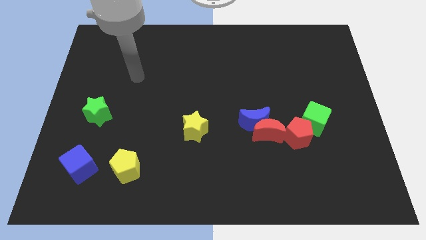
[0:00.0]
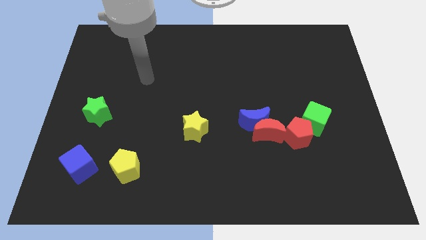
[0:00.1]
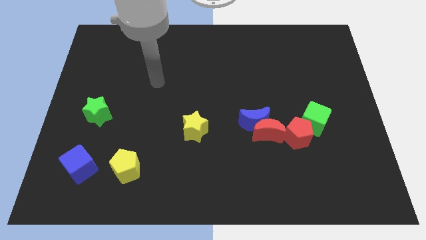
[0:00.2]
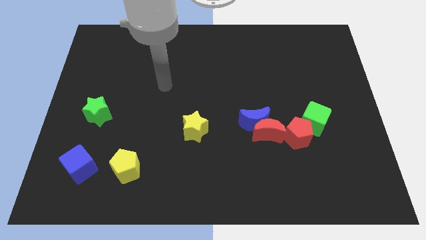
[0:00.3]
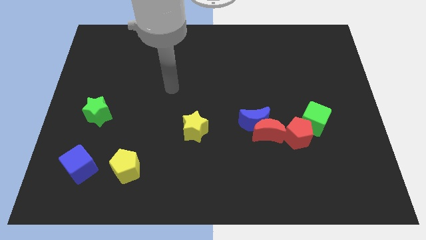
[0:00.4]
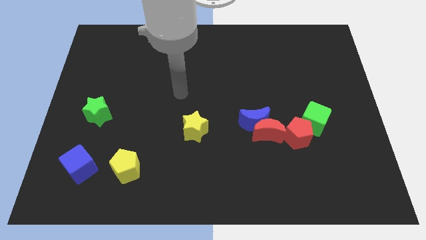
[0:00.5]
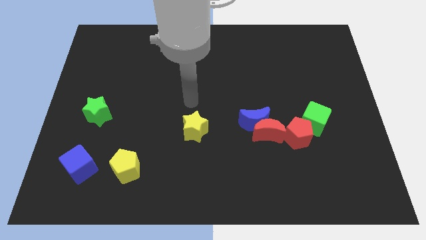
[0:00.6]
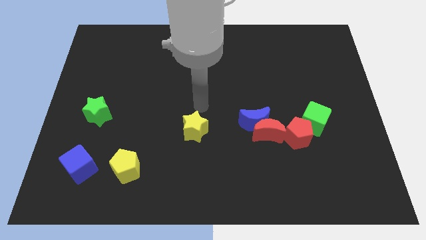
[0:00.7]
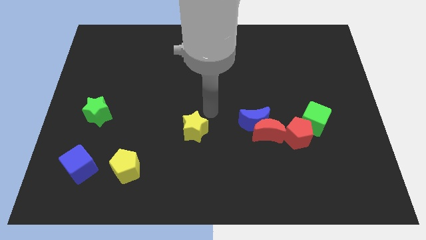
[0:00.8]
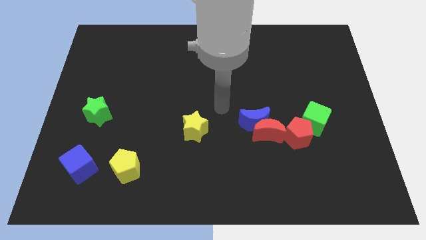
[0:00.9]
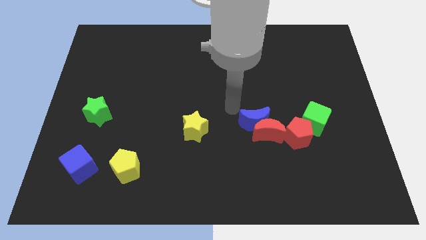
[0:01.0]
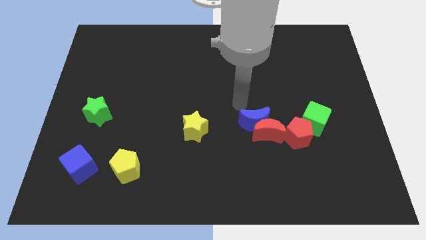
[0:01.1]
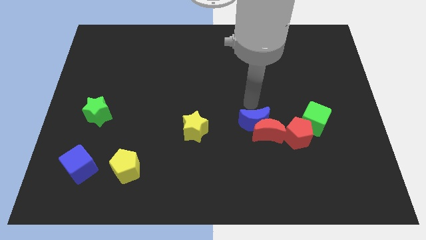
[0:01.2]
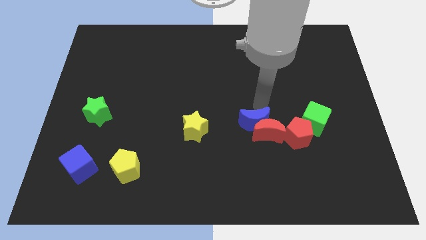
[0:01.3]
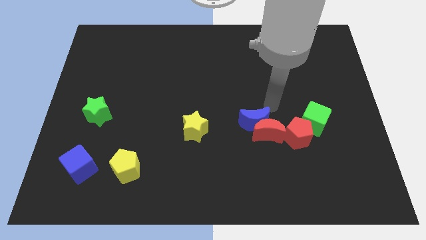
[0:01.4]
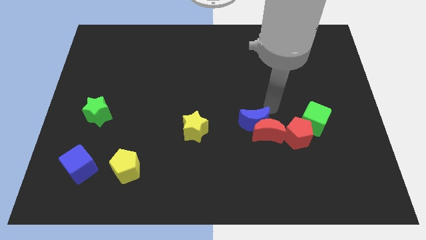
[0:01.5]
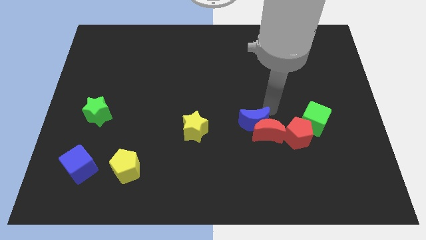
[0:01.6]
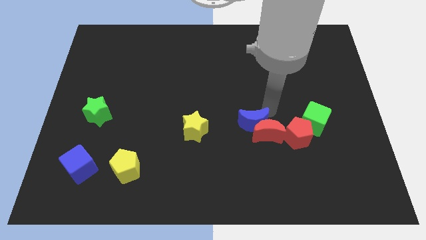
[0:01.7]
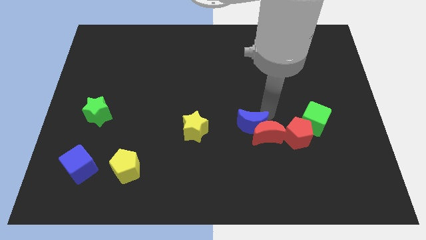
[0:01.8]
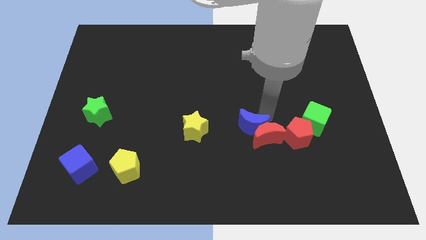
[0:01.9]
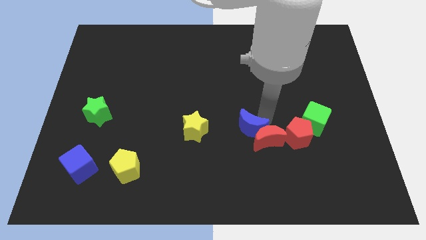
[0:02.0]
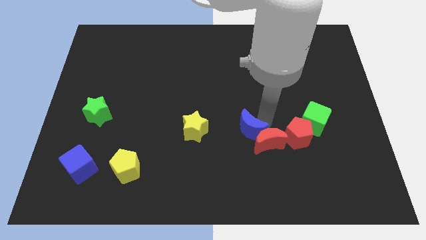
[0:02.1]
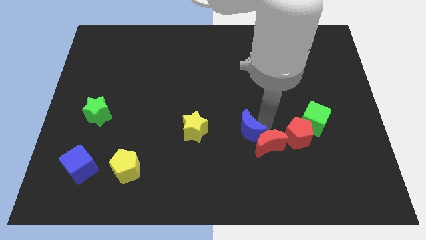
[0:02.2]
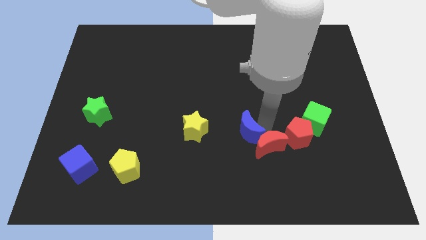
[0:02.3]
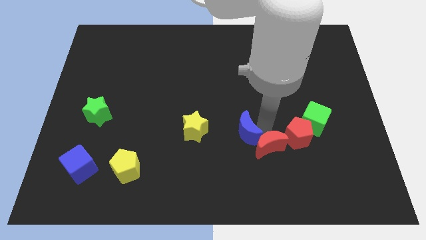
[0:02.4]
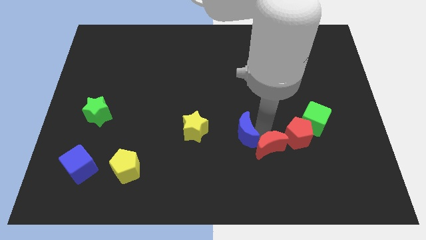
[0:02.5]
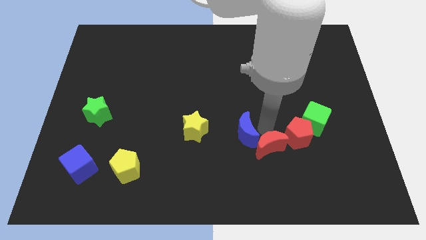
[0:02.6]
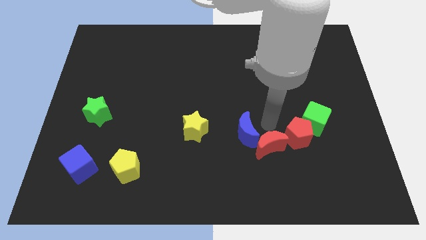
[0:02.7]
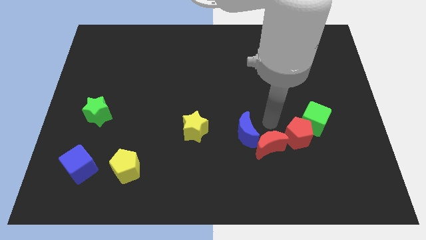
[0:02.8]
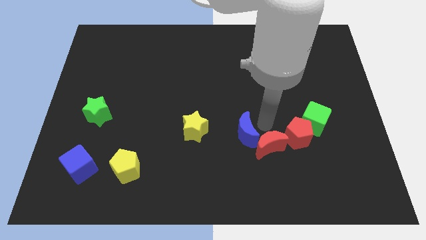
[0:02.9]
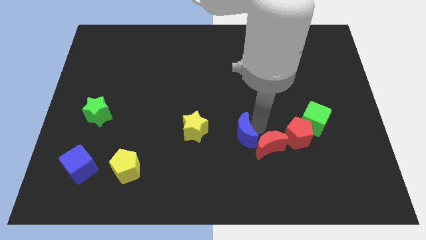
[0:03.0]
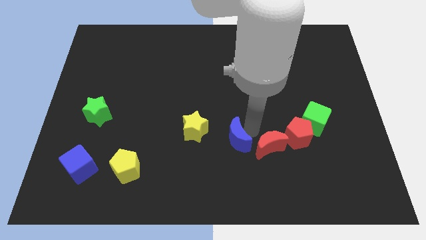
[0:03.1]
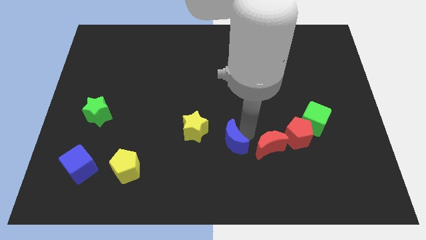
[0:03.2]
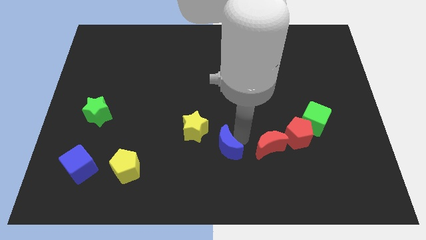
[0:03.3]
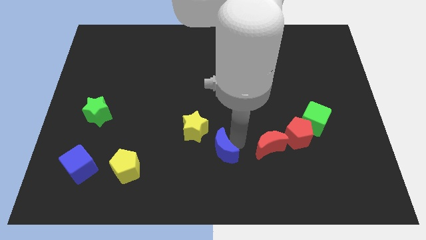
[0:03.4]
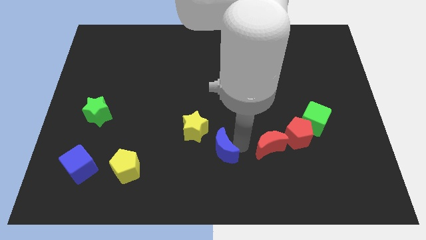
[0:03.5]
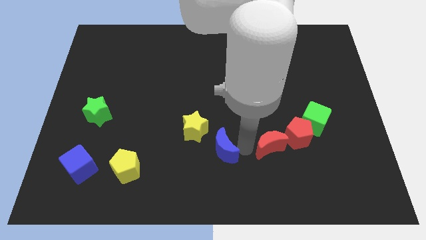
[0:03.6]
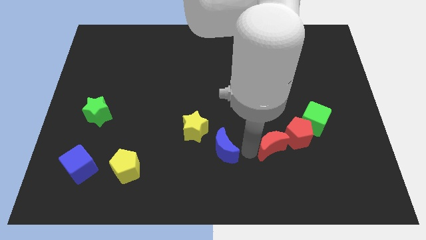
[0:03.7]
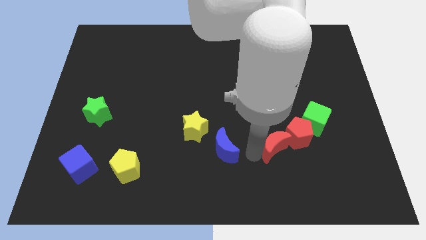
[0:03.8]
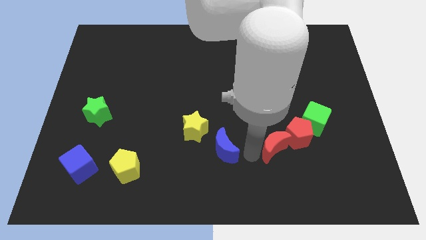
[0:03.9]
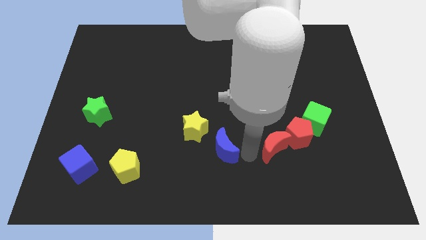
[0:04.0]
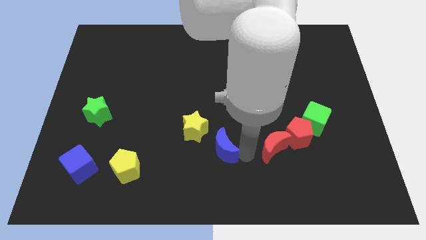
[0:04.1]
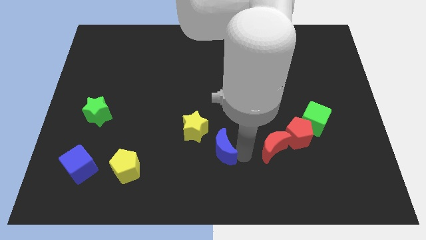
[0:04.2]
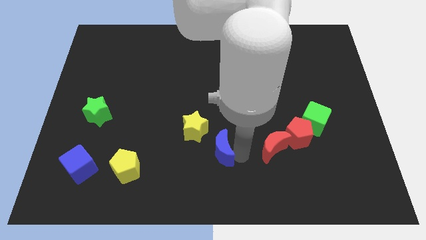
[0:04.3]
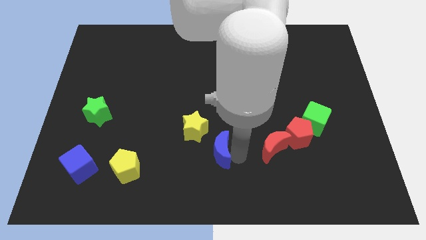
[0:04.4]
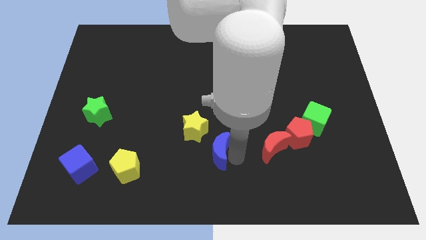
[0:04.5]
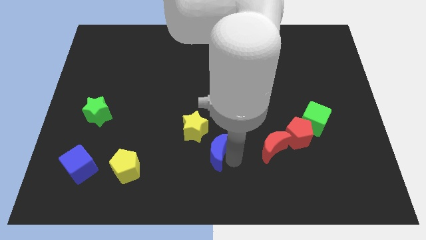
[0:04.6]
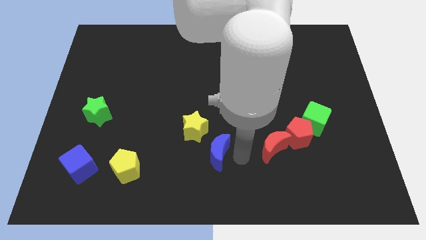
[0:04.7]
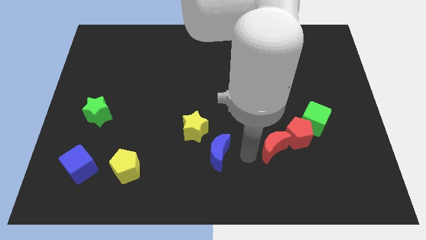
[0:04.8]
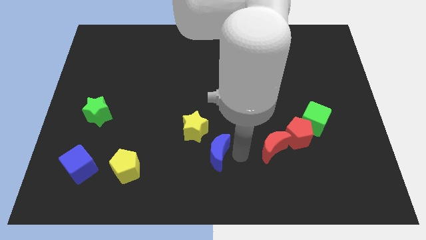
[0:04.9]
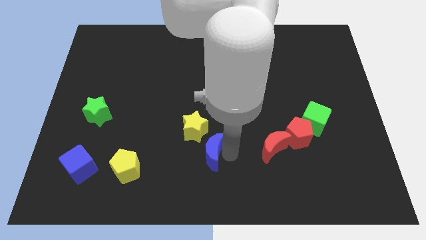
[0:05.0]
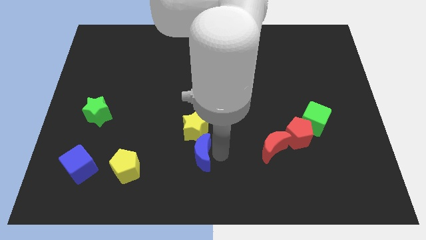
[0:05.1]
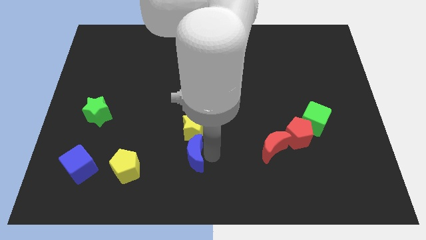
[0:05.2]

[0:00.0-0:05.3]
put the blue moon diagonally down and to the left of the yellow star

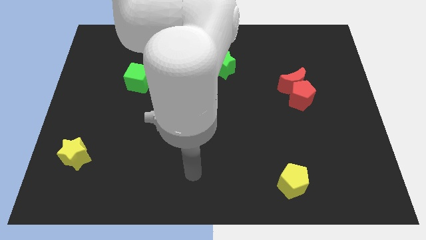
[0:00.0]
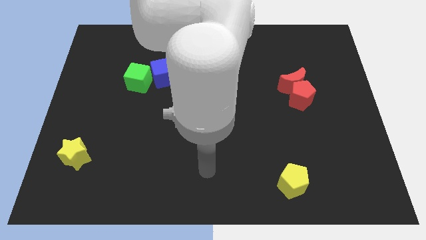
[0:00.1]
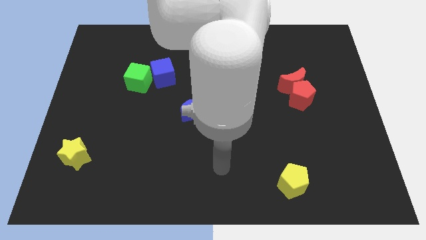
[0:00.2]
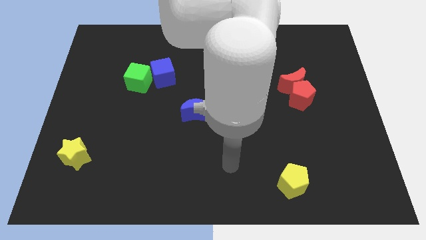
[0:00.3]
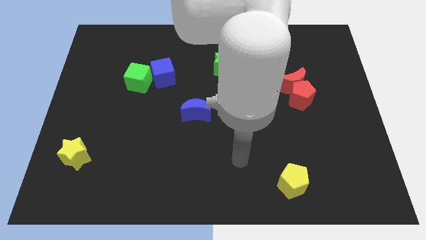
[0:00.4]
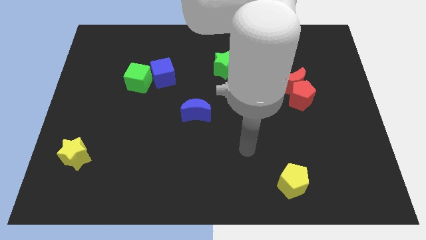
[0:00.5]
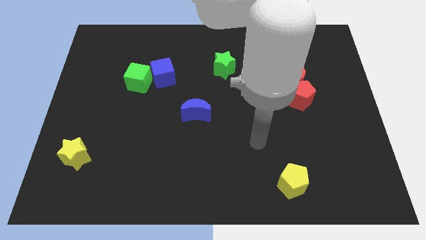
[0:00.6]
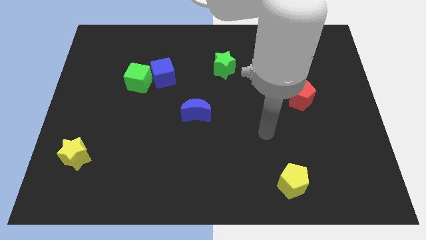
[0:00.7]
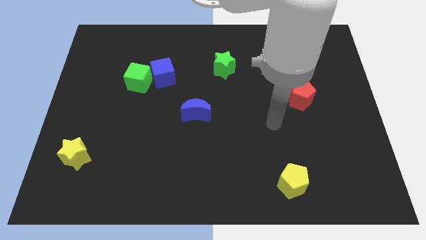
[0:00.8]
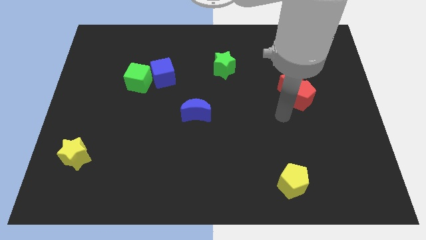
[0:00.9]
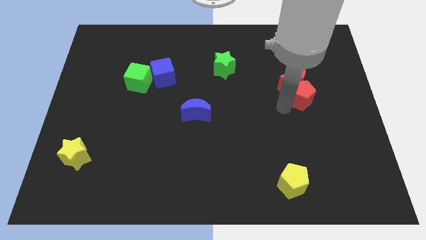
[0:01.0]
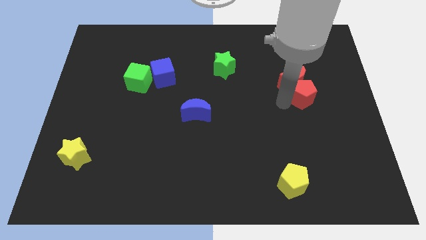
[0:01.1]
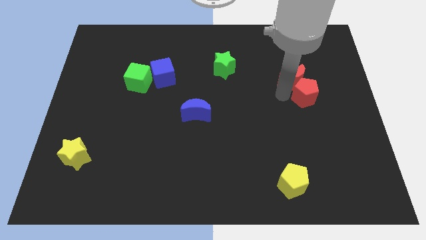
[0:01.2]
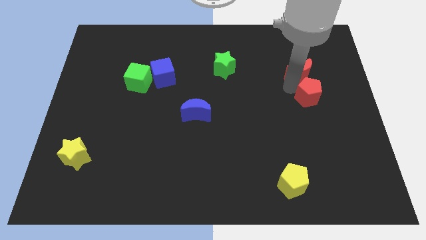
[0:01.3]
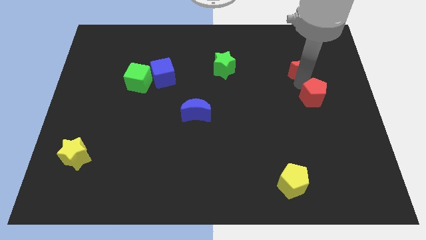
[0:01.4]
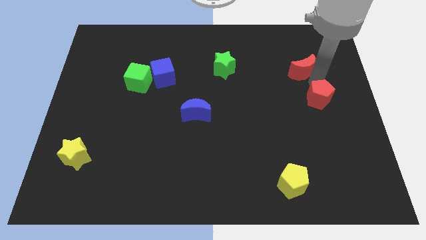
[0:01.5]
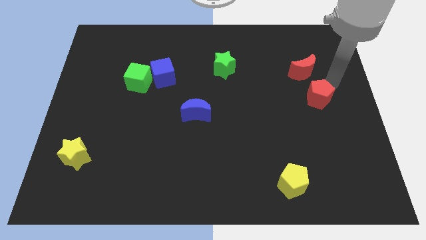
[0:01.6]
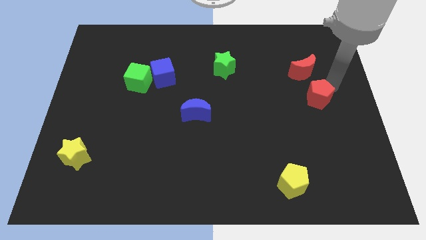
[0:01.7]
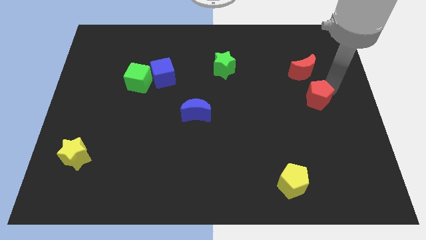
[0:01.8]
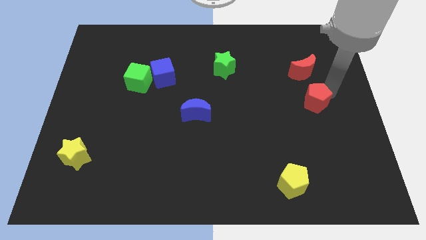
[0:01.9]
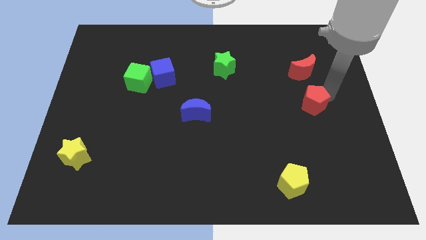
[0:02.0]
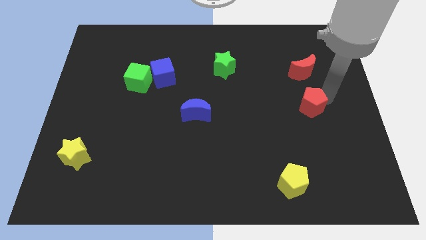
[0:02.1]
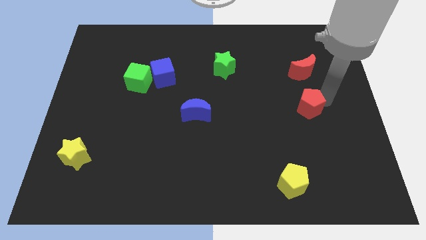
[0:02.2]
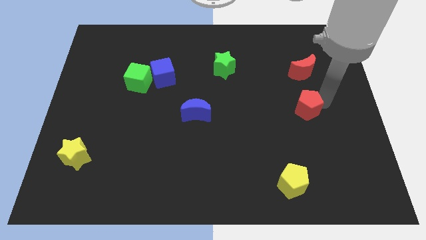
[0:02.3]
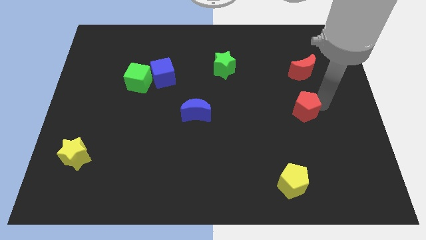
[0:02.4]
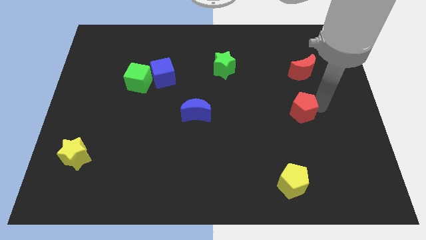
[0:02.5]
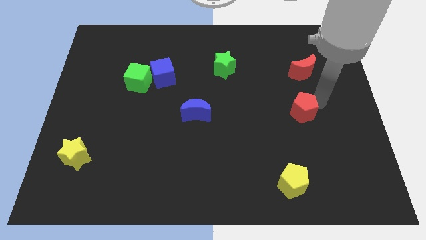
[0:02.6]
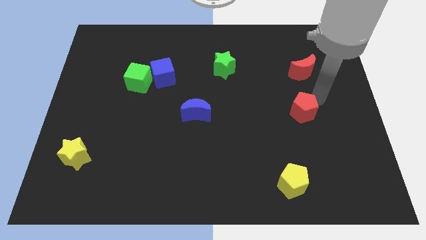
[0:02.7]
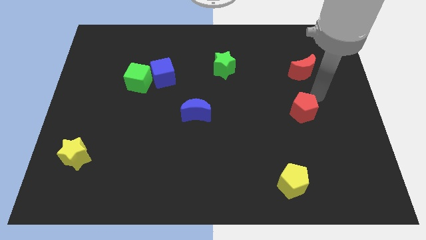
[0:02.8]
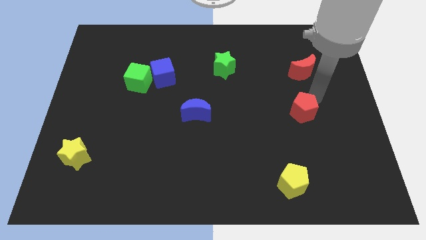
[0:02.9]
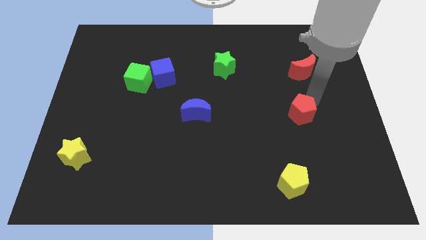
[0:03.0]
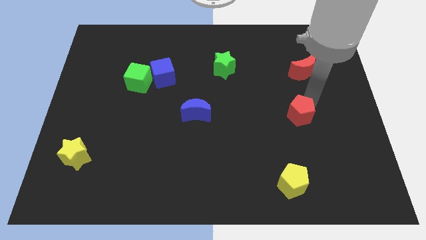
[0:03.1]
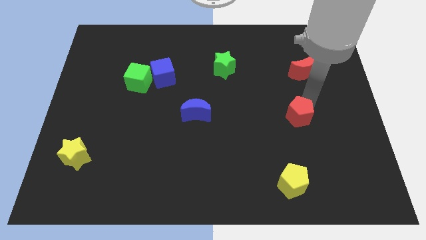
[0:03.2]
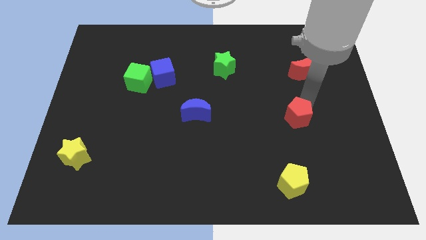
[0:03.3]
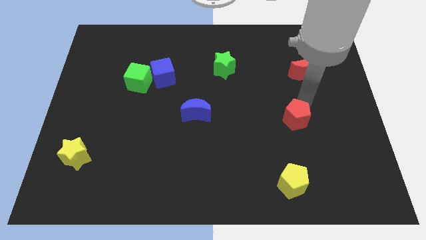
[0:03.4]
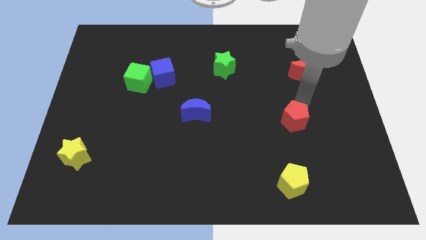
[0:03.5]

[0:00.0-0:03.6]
put the red pentagon above the yellow pentagon
